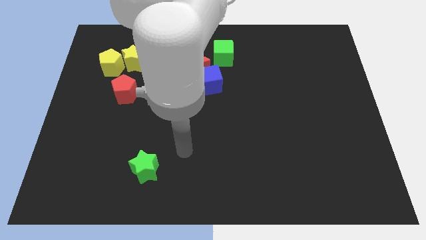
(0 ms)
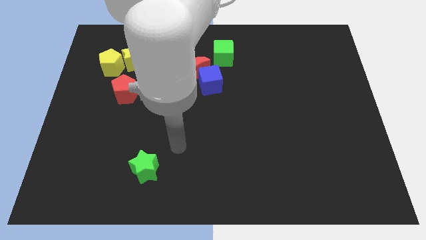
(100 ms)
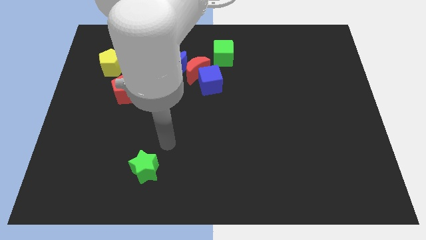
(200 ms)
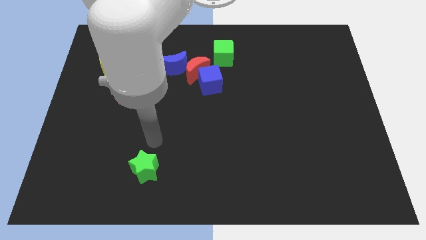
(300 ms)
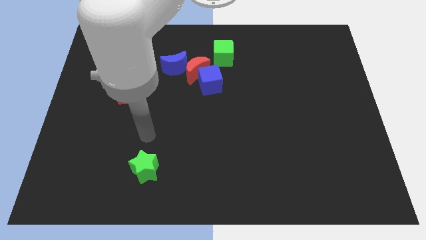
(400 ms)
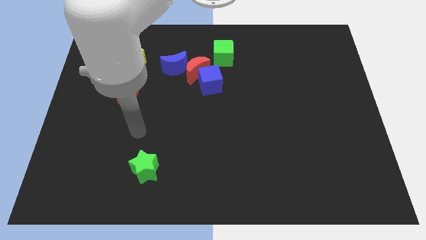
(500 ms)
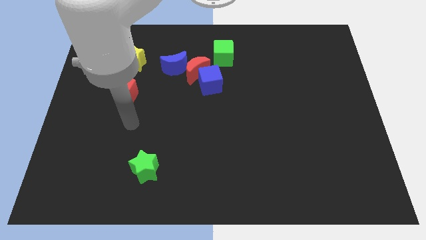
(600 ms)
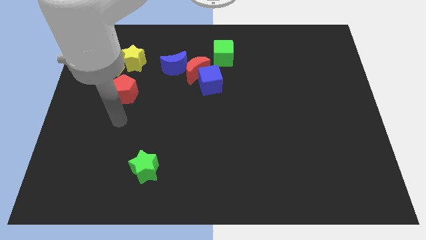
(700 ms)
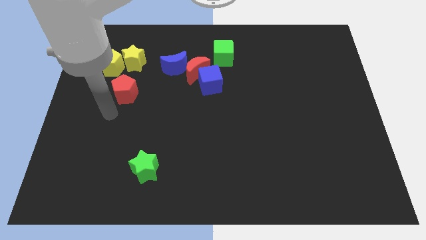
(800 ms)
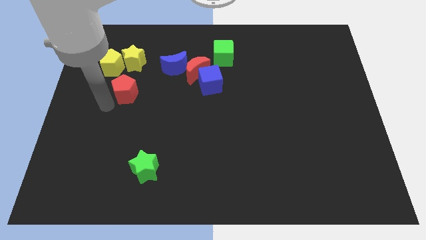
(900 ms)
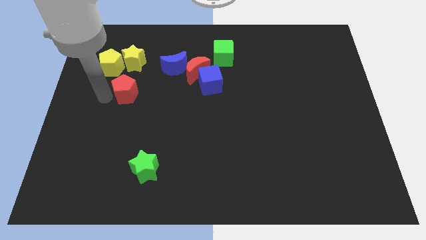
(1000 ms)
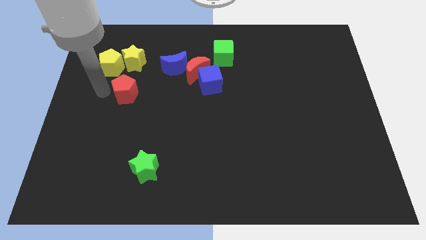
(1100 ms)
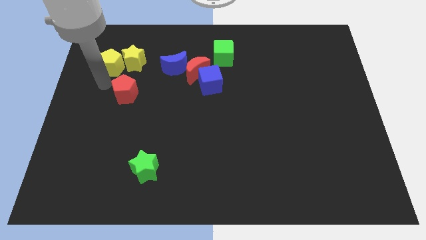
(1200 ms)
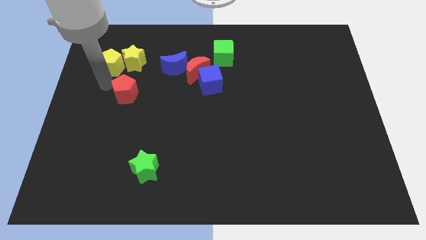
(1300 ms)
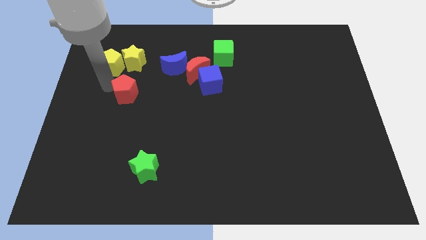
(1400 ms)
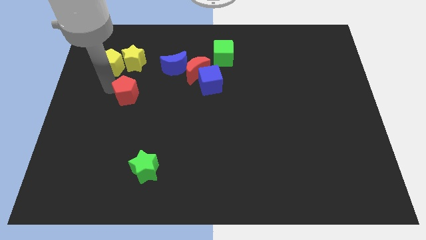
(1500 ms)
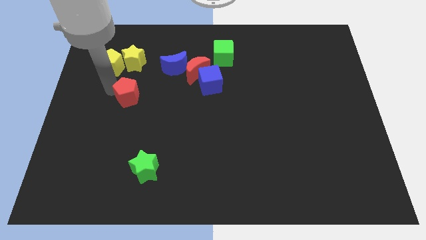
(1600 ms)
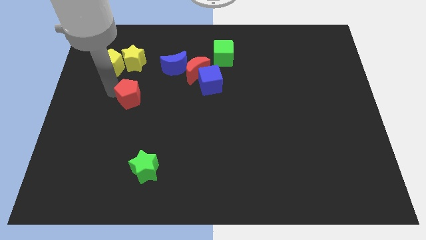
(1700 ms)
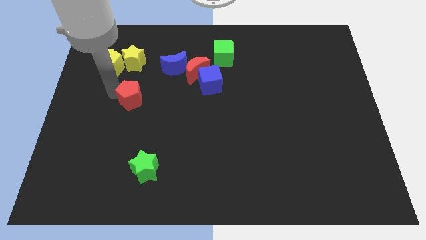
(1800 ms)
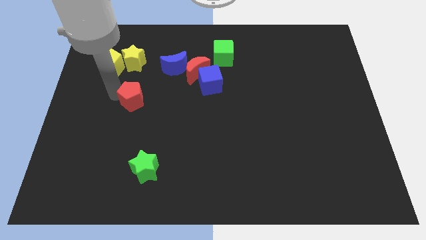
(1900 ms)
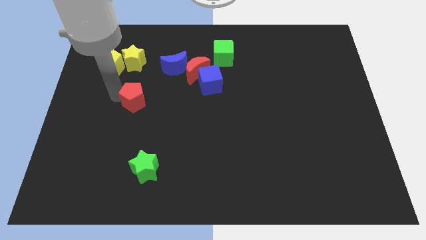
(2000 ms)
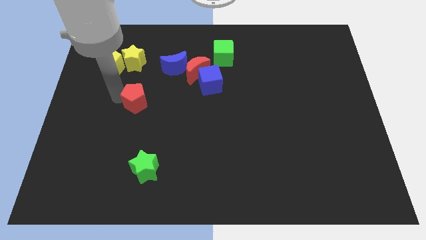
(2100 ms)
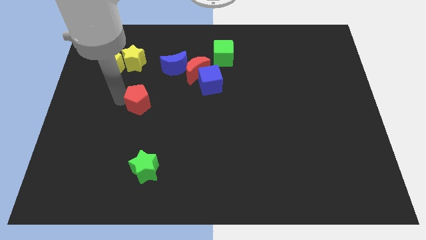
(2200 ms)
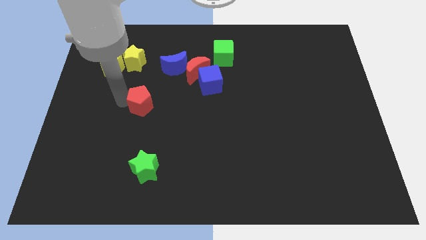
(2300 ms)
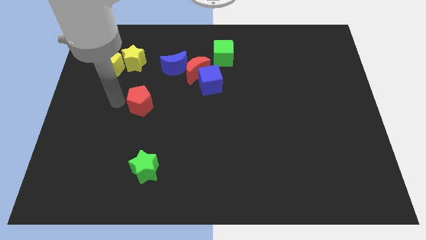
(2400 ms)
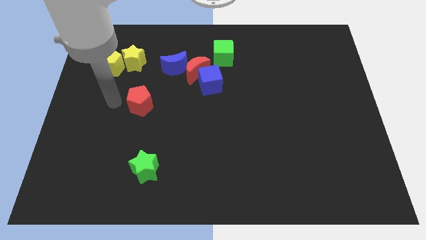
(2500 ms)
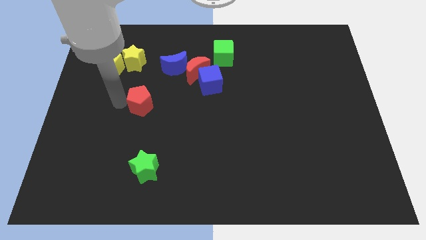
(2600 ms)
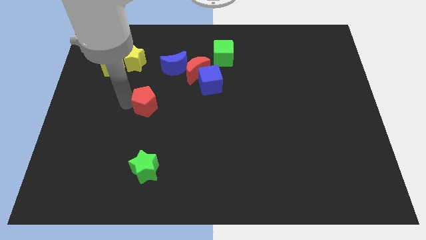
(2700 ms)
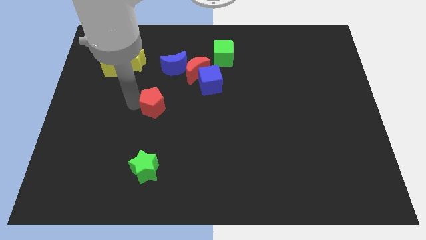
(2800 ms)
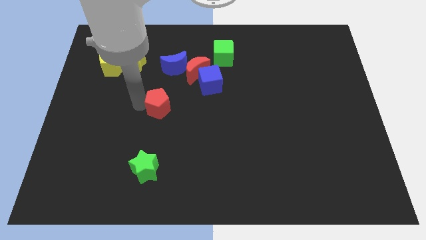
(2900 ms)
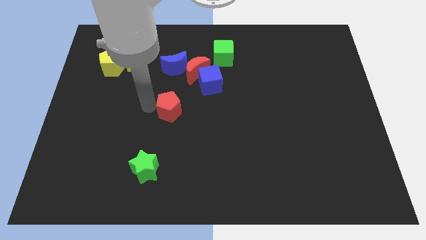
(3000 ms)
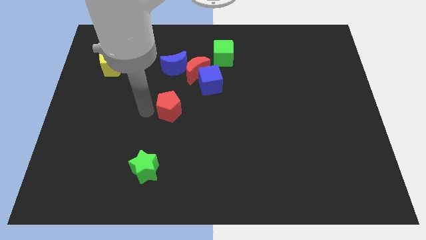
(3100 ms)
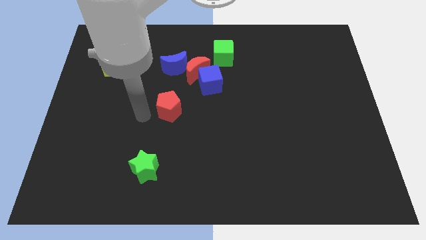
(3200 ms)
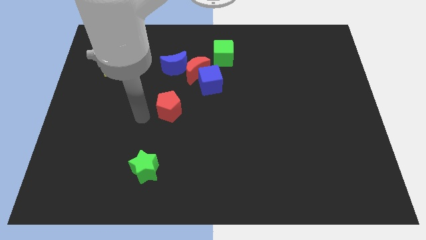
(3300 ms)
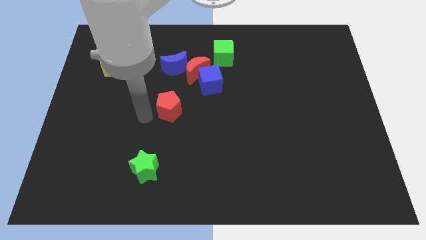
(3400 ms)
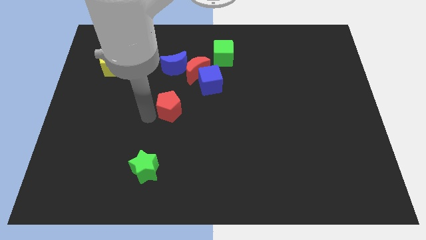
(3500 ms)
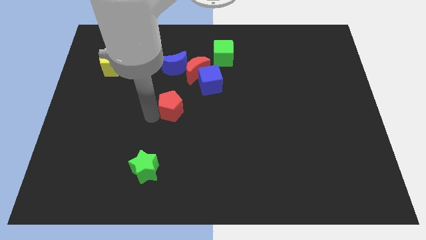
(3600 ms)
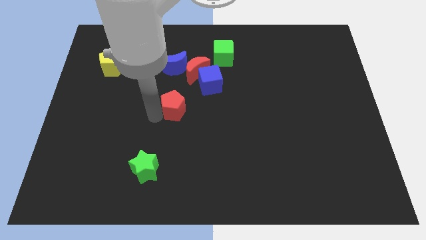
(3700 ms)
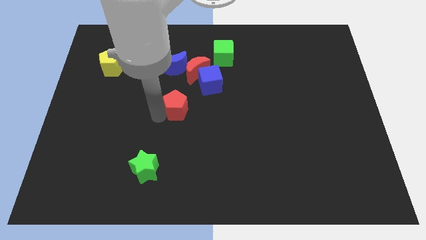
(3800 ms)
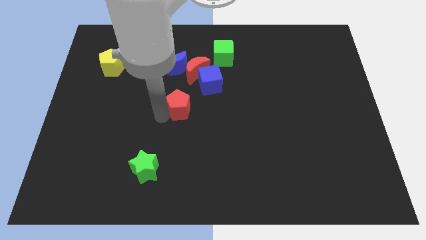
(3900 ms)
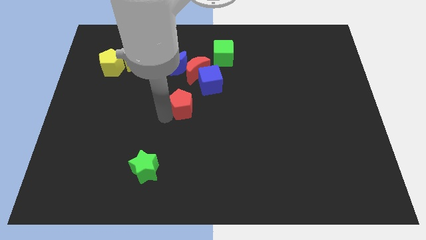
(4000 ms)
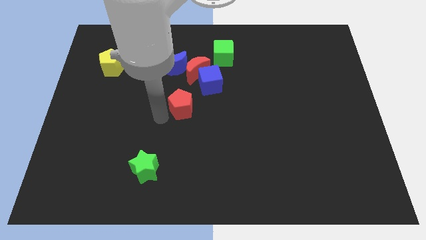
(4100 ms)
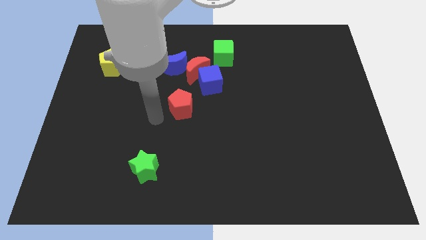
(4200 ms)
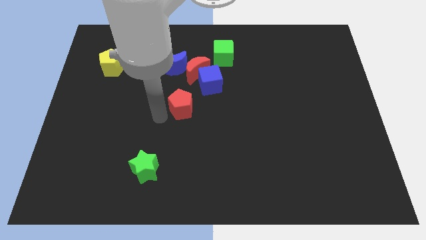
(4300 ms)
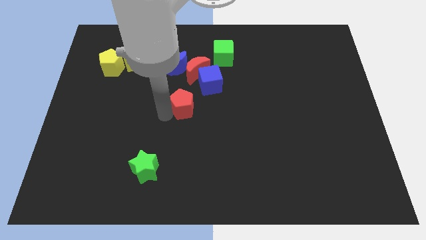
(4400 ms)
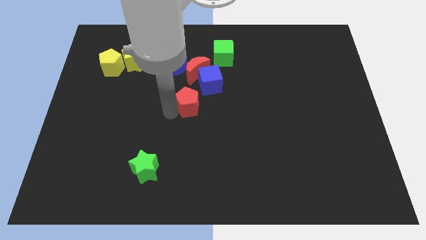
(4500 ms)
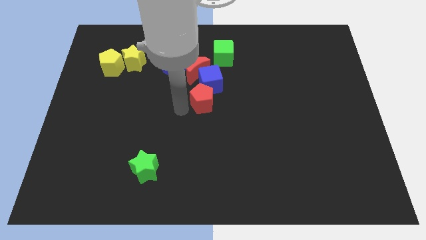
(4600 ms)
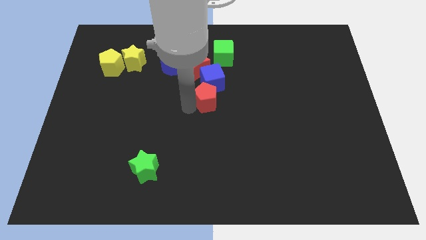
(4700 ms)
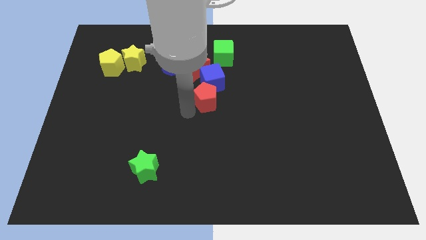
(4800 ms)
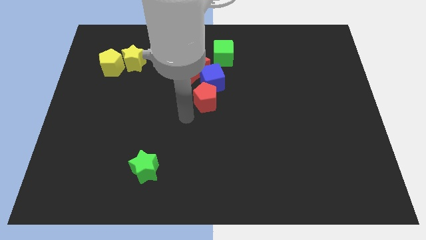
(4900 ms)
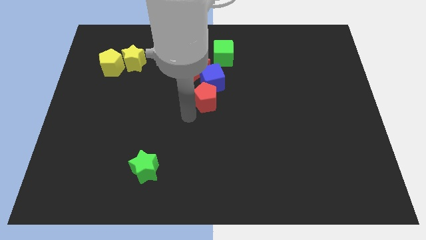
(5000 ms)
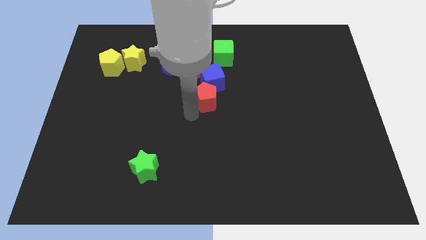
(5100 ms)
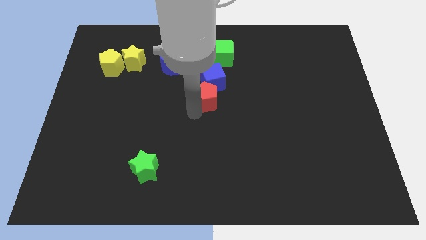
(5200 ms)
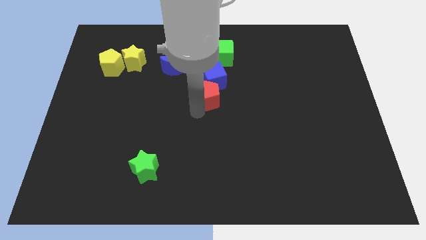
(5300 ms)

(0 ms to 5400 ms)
push the red pentagon below the green cube
